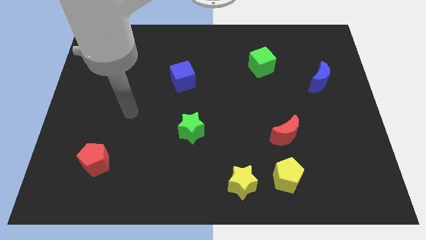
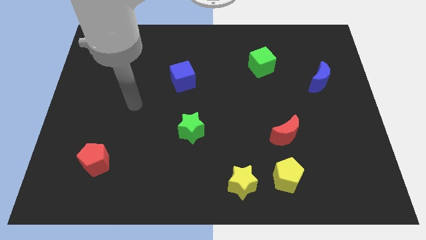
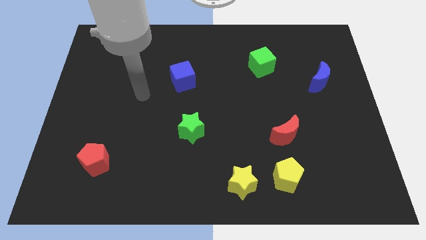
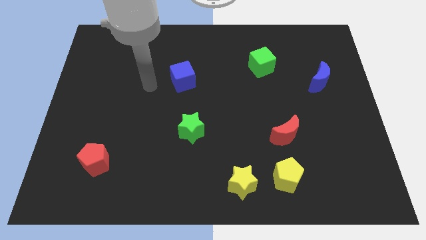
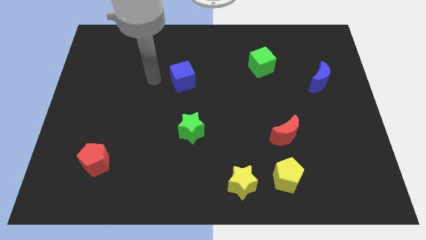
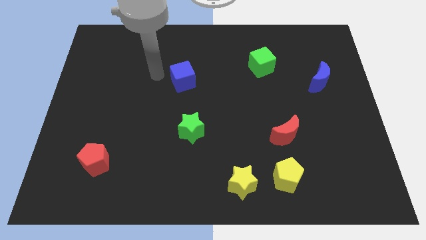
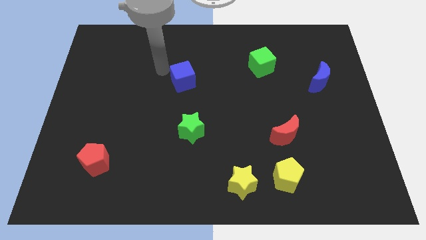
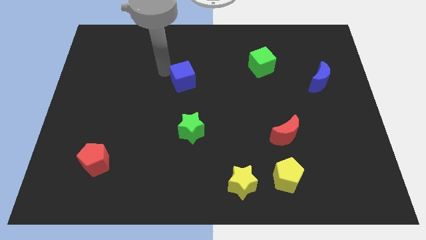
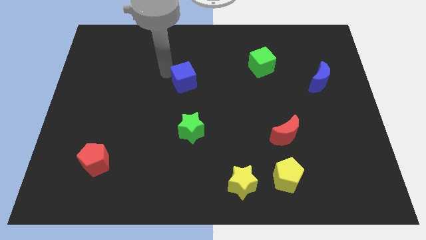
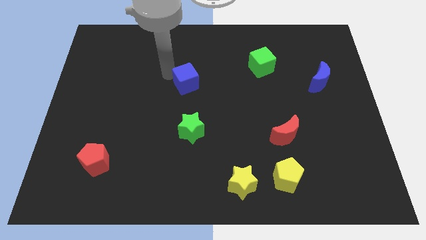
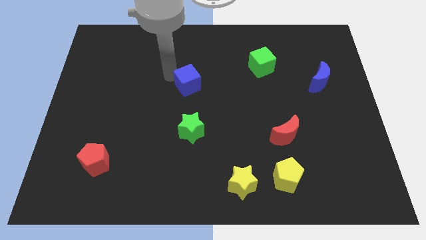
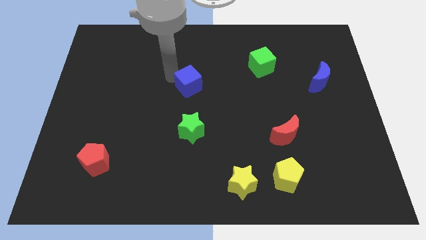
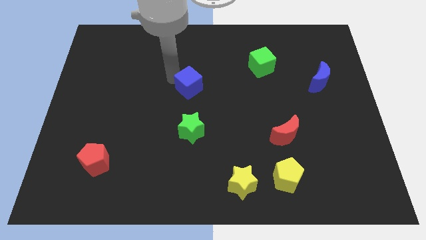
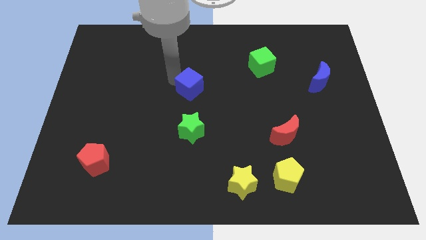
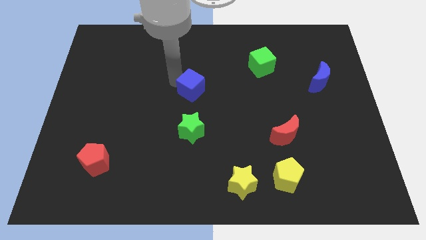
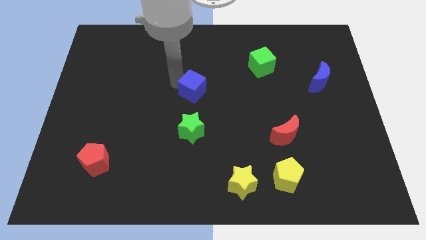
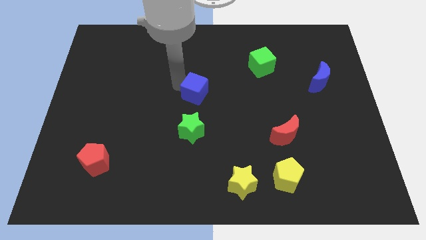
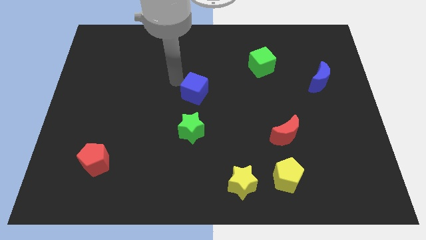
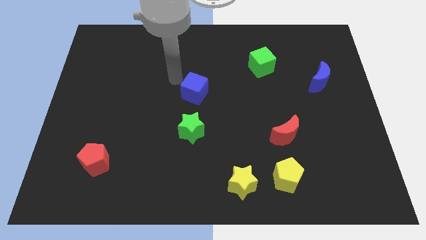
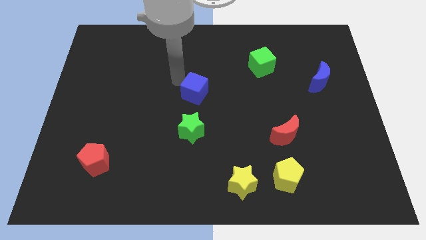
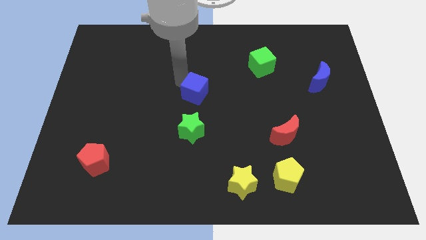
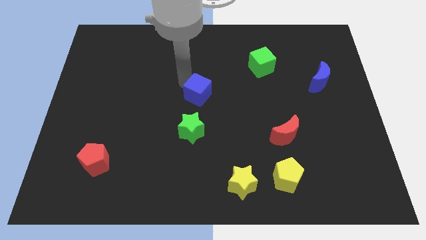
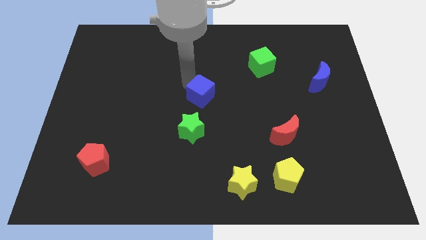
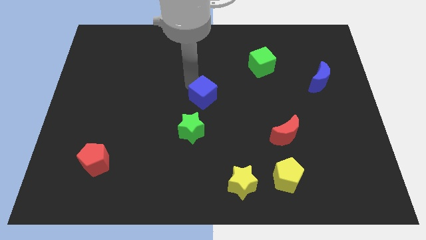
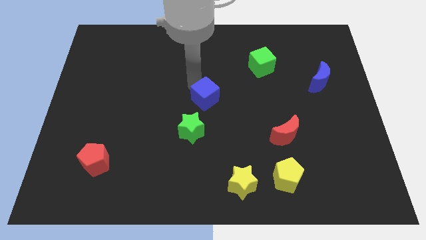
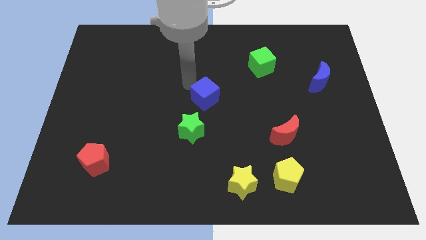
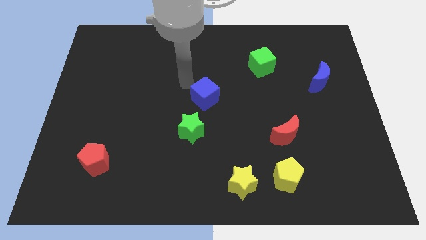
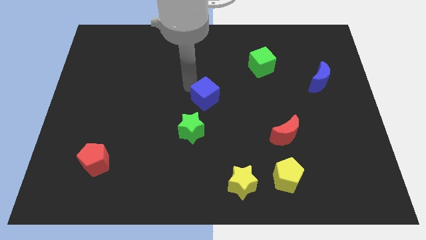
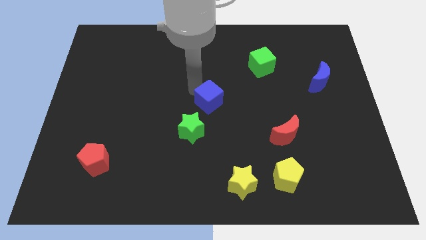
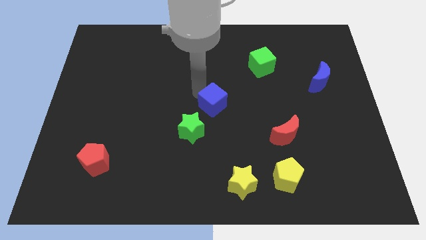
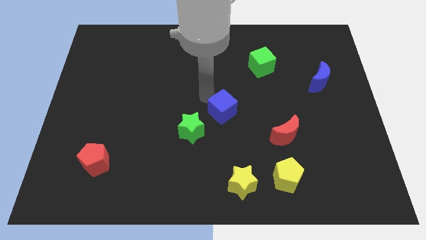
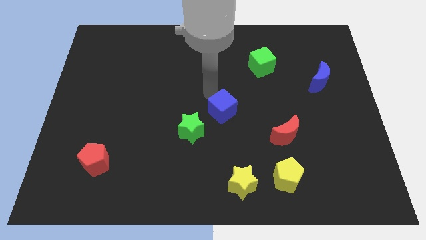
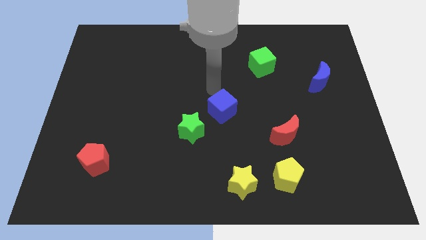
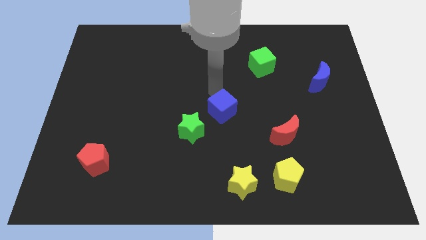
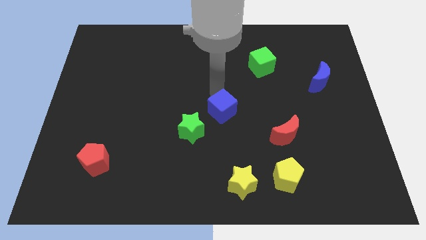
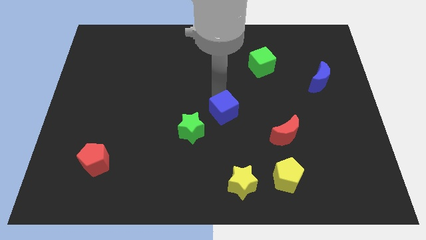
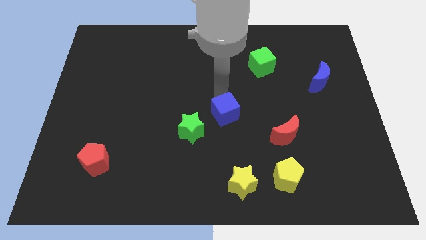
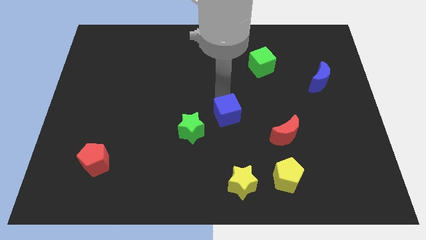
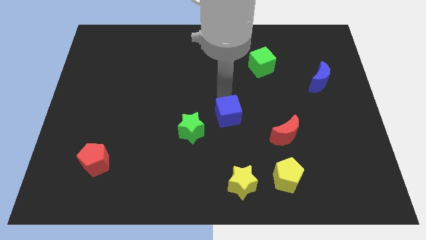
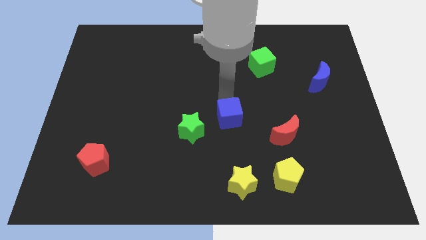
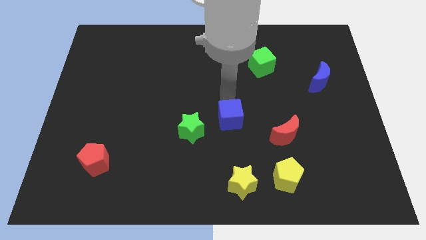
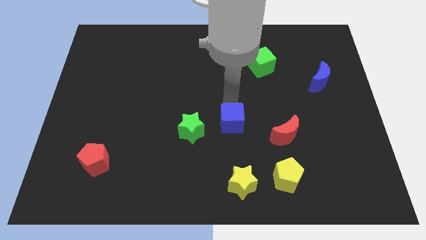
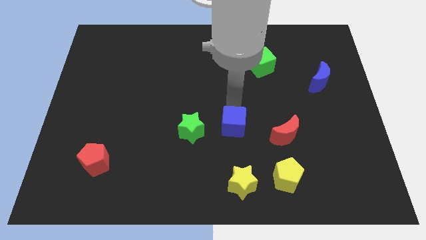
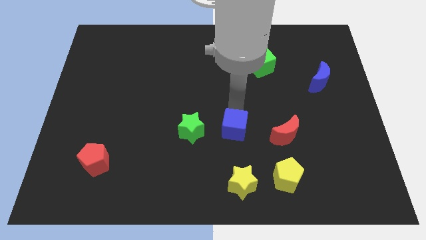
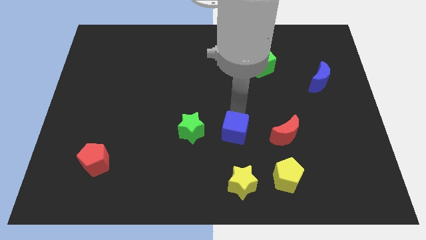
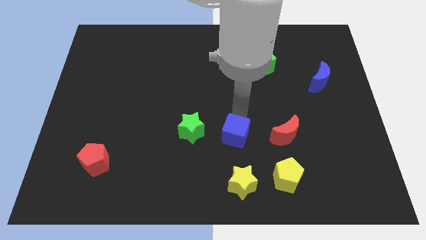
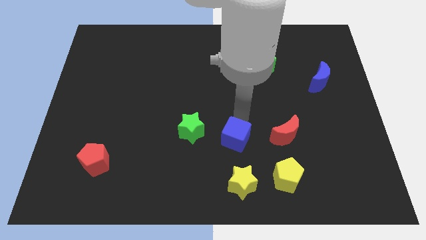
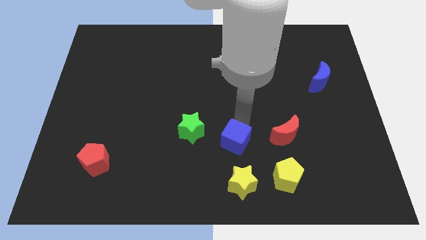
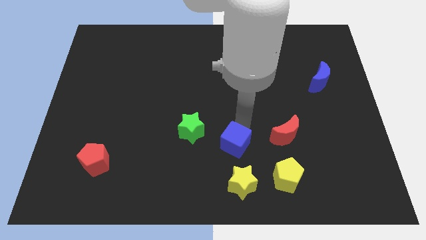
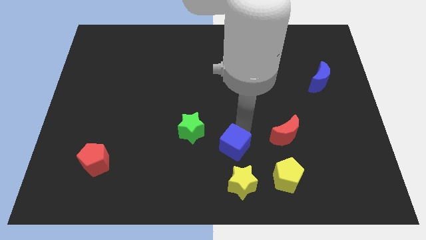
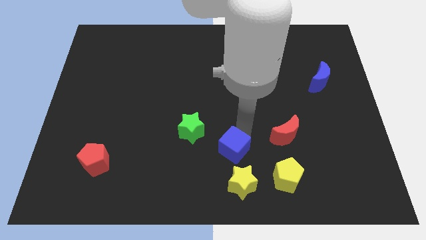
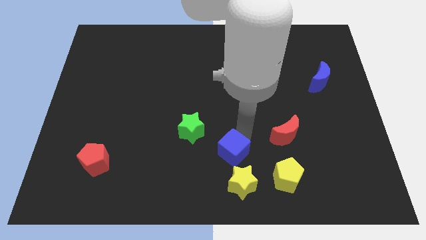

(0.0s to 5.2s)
put the blue cube to the top left side of the yellow star

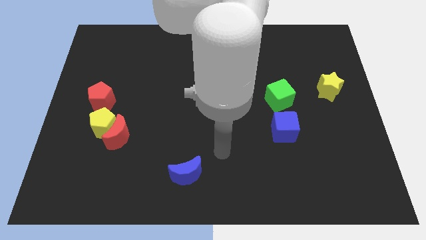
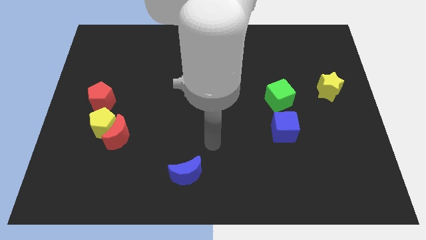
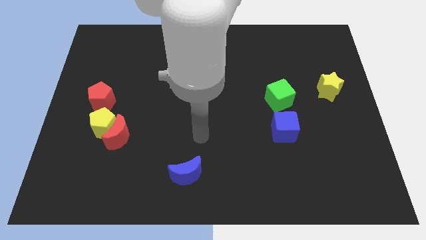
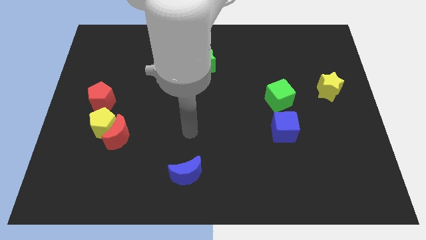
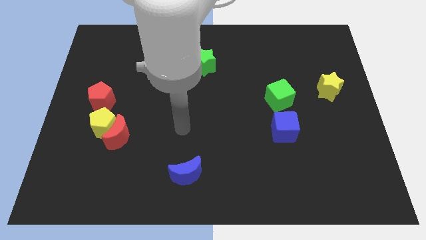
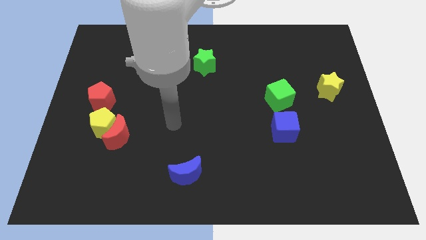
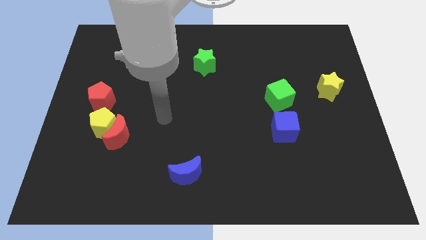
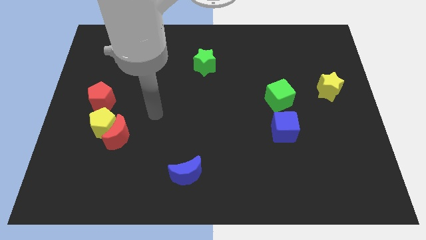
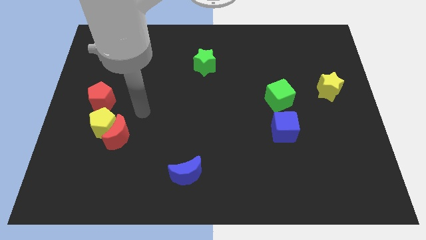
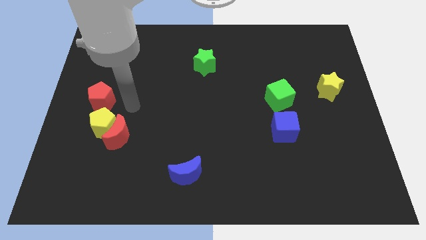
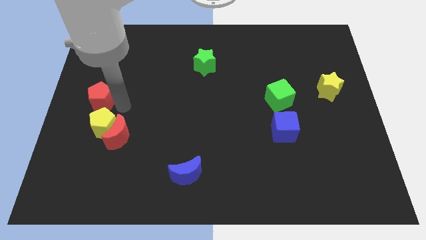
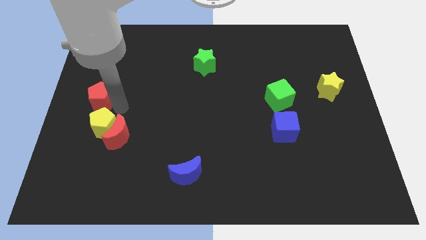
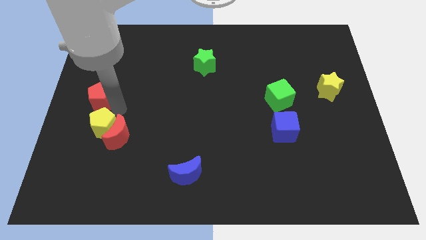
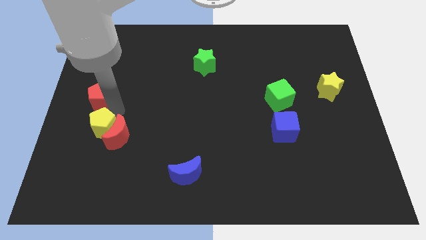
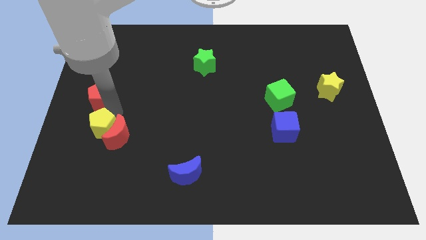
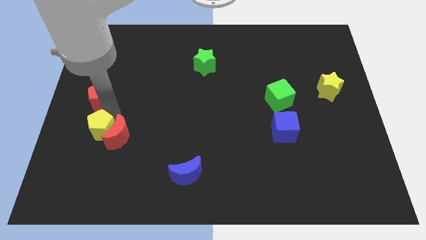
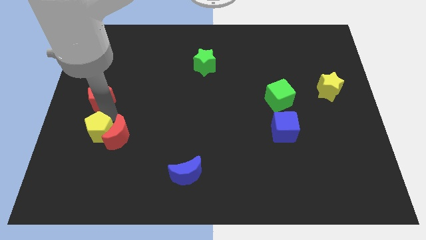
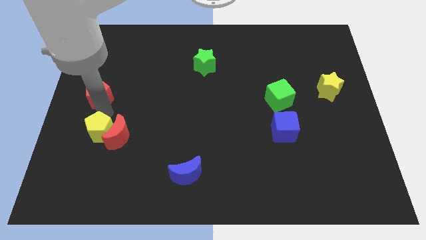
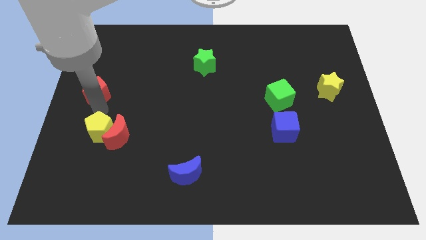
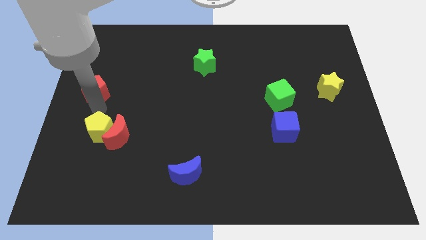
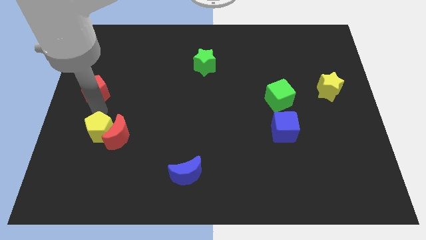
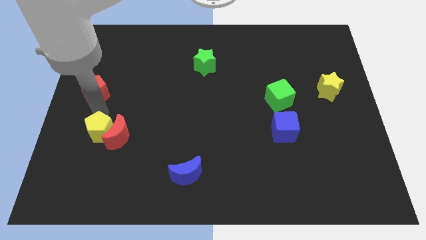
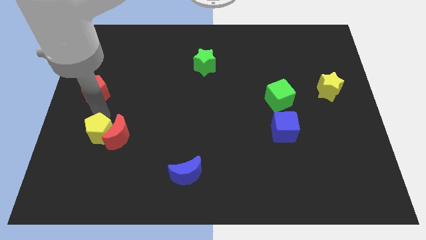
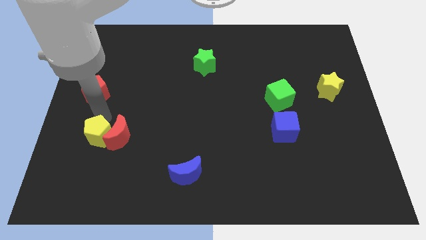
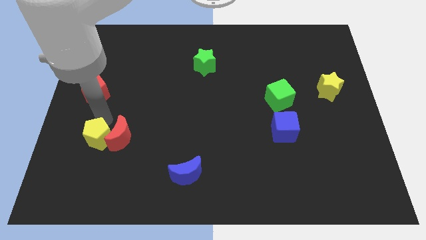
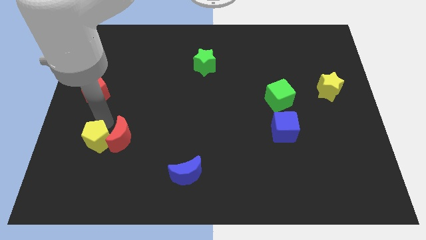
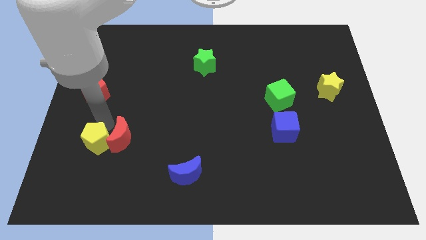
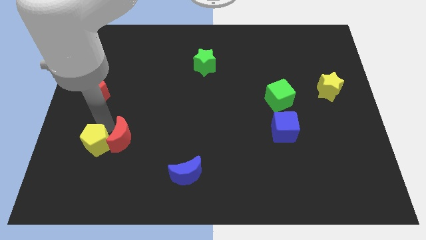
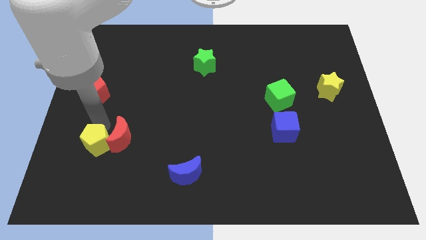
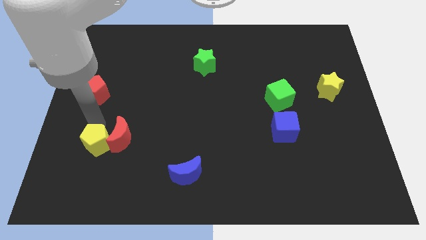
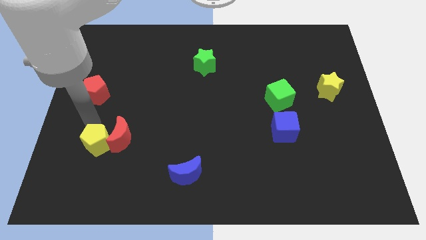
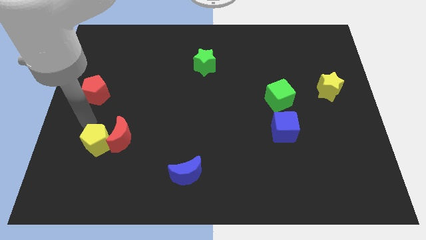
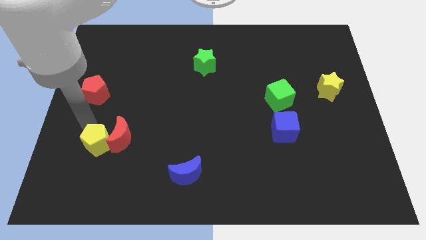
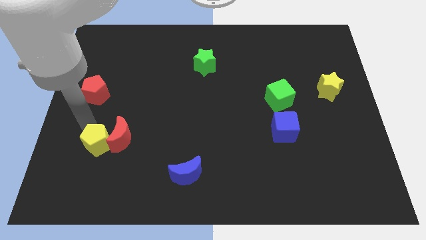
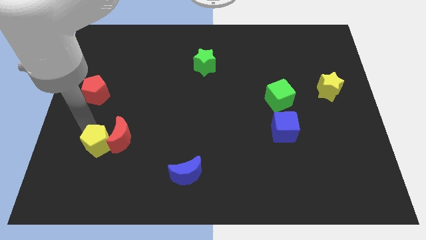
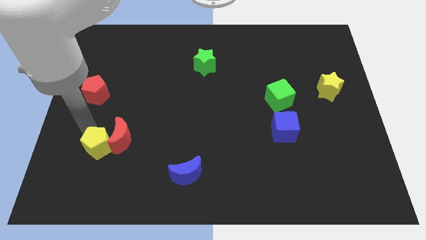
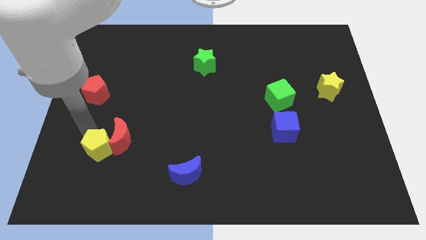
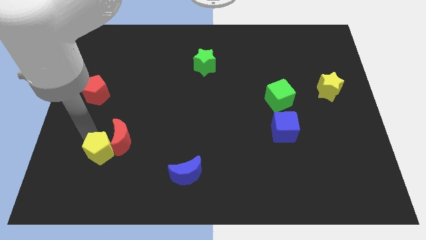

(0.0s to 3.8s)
slide the yellow pentagon to the bottom of the red moon
